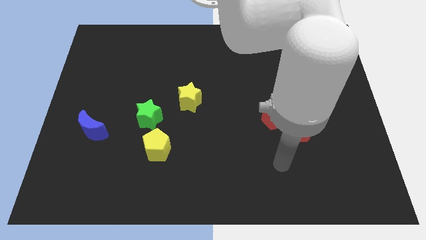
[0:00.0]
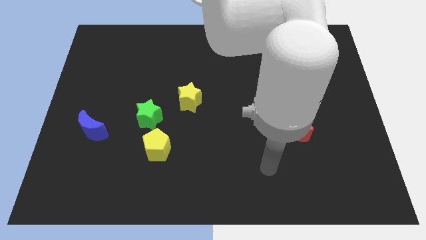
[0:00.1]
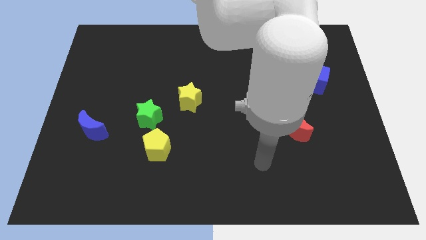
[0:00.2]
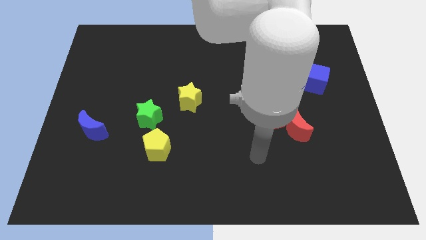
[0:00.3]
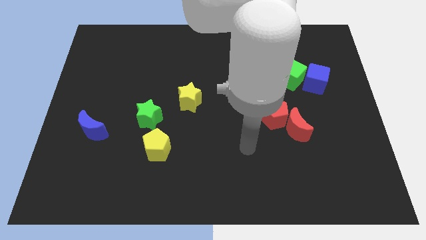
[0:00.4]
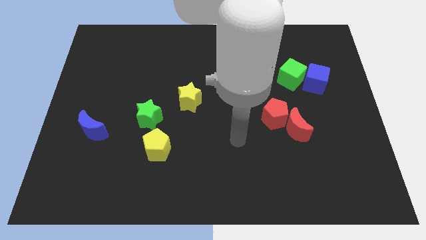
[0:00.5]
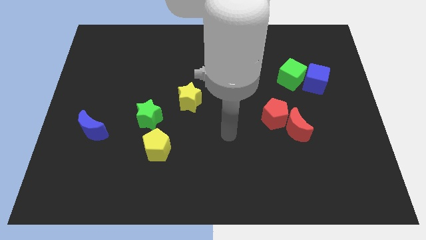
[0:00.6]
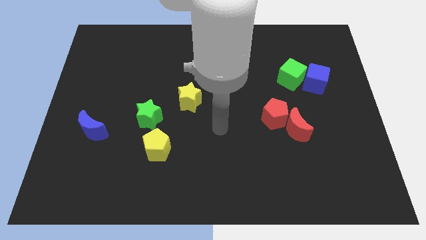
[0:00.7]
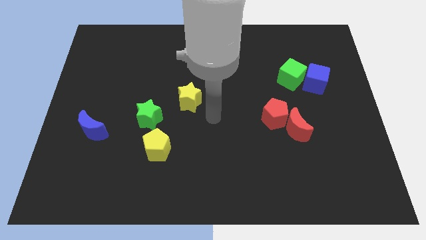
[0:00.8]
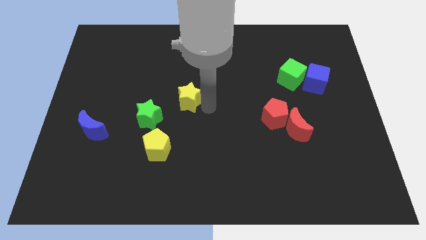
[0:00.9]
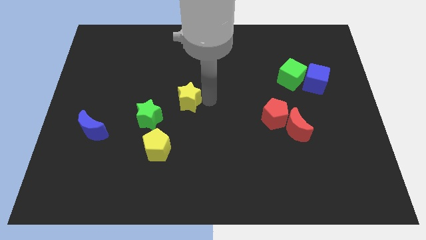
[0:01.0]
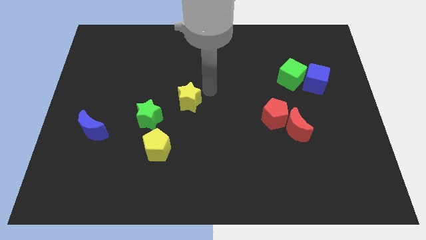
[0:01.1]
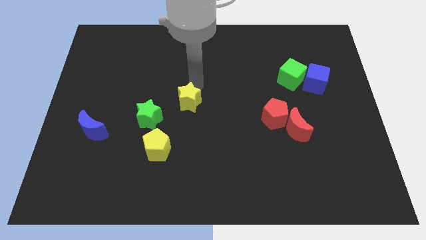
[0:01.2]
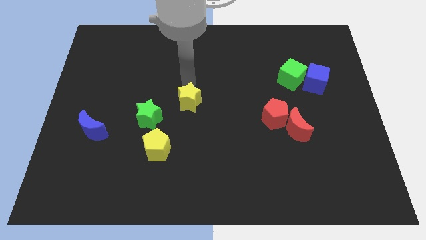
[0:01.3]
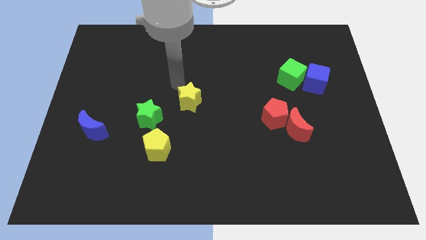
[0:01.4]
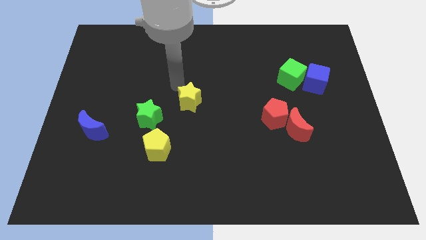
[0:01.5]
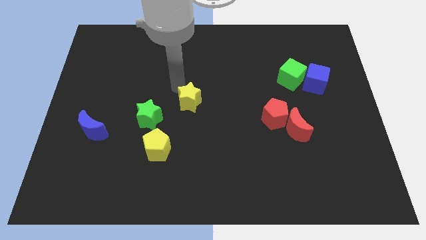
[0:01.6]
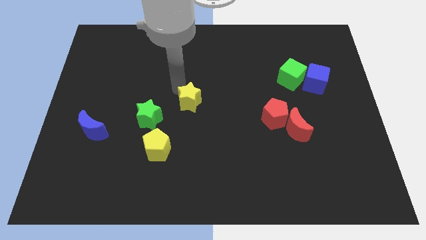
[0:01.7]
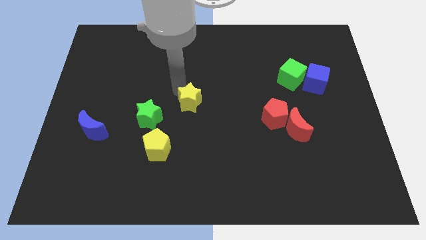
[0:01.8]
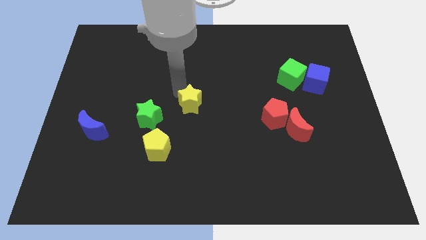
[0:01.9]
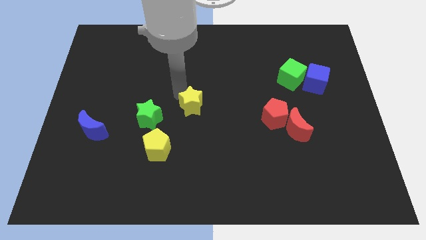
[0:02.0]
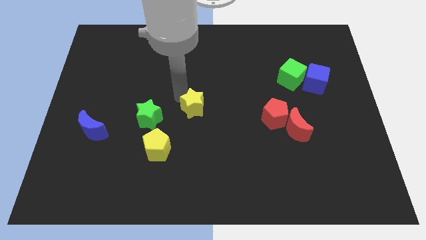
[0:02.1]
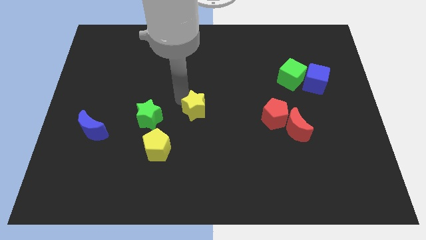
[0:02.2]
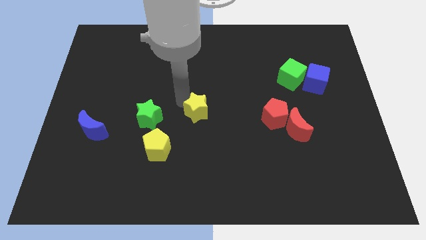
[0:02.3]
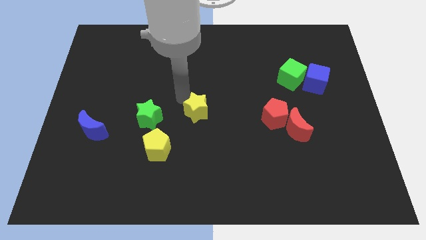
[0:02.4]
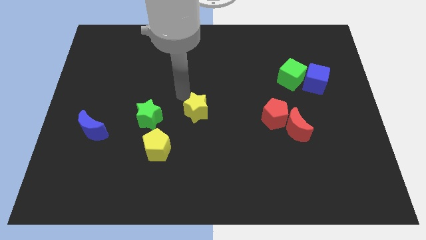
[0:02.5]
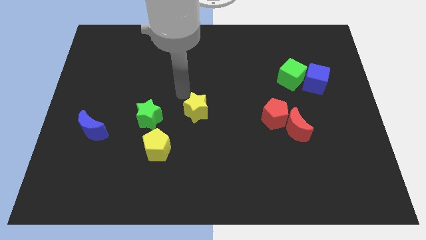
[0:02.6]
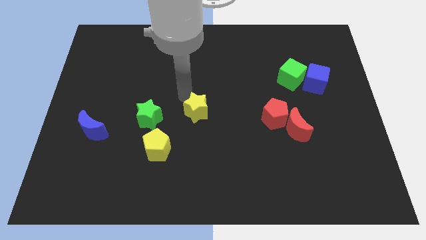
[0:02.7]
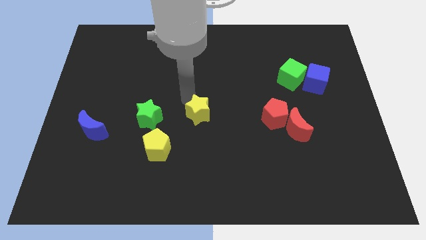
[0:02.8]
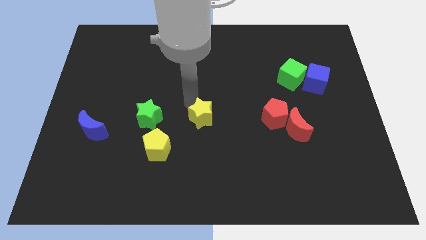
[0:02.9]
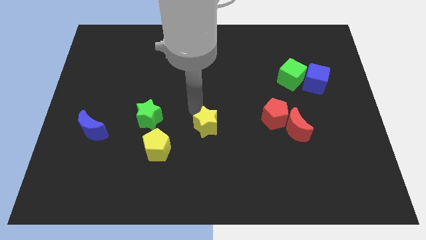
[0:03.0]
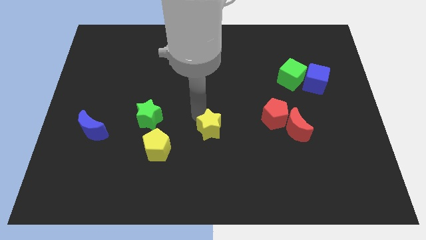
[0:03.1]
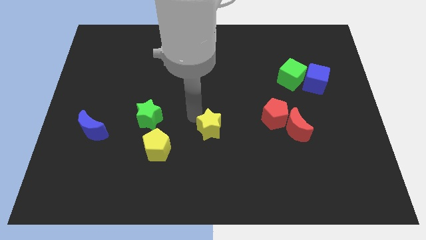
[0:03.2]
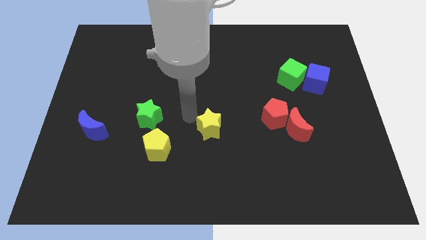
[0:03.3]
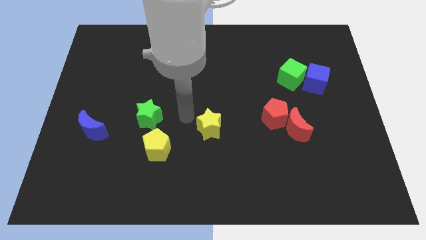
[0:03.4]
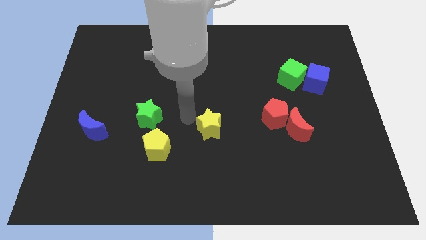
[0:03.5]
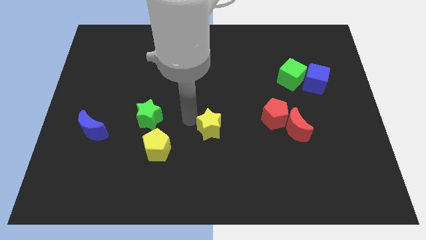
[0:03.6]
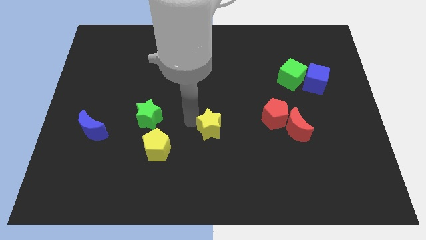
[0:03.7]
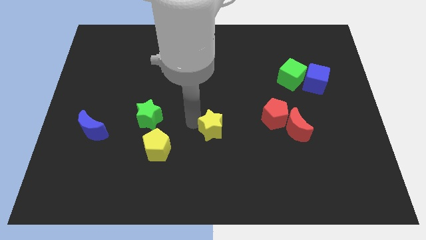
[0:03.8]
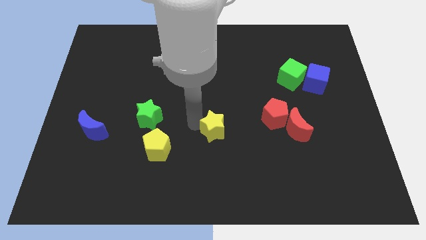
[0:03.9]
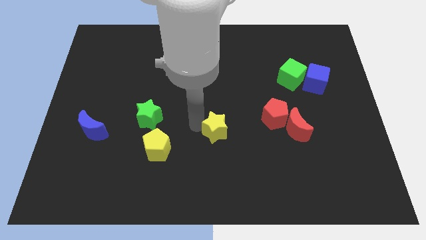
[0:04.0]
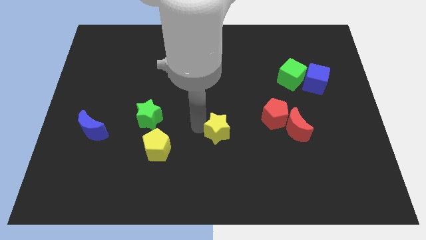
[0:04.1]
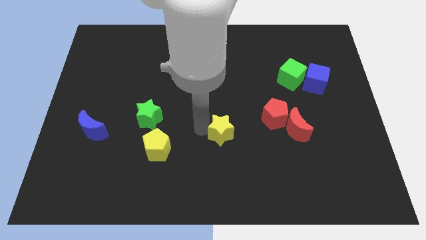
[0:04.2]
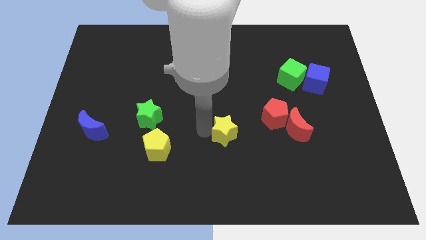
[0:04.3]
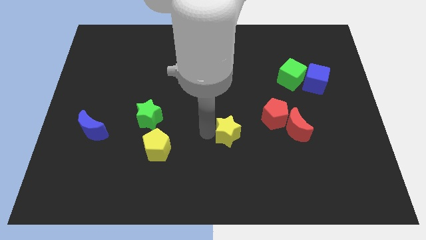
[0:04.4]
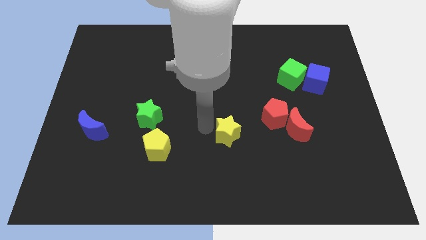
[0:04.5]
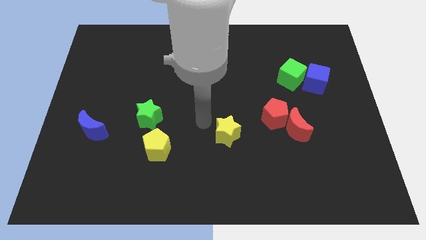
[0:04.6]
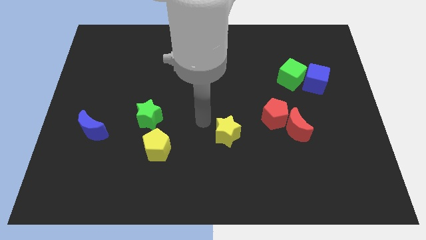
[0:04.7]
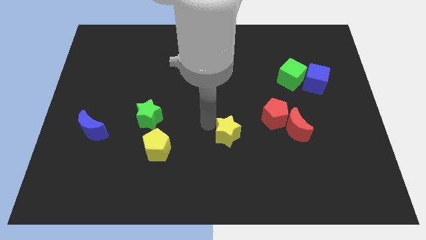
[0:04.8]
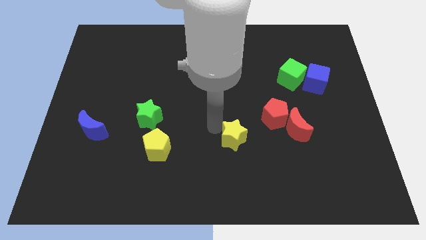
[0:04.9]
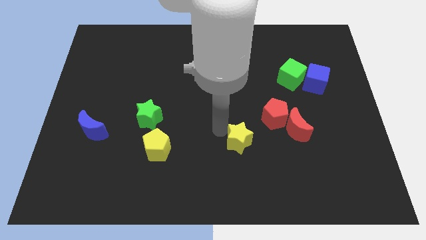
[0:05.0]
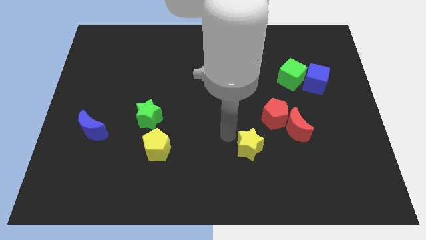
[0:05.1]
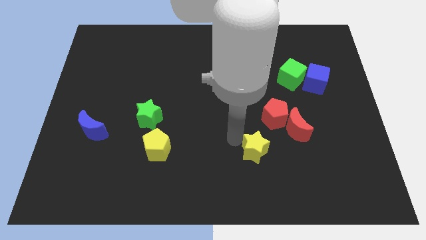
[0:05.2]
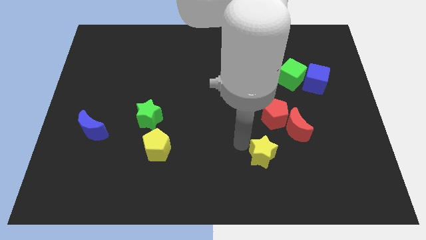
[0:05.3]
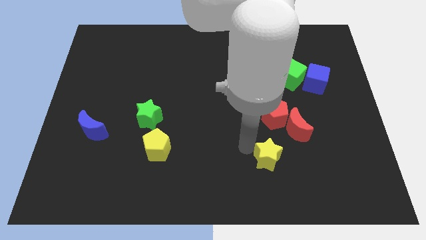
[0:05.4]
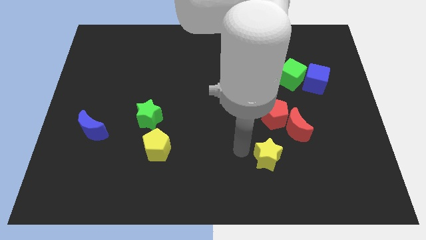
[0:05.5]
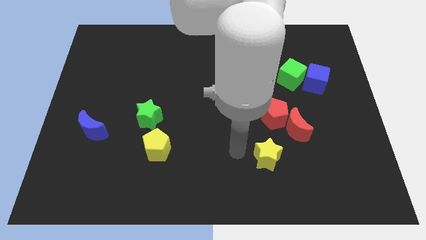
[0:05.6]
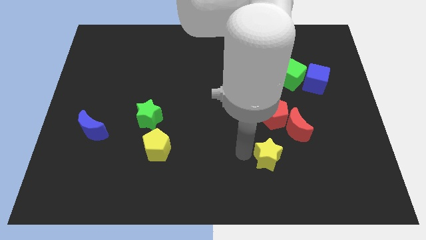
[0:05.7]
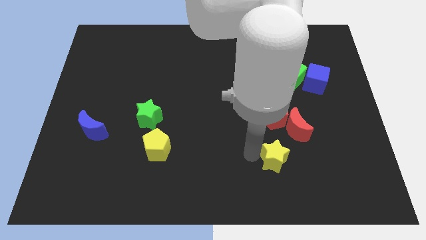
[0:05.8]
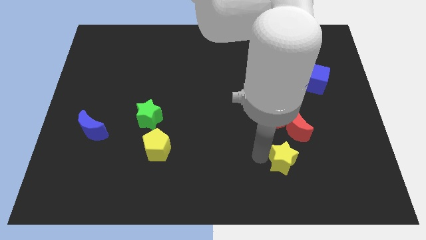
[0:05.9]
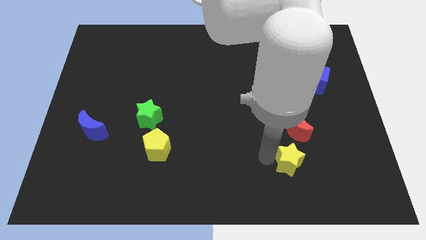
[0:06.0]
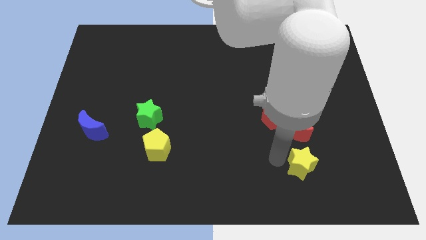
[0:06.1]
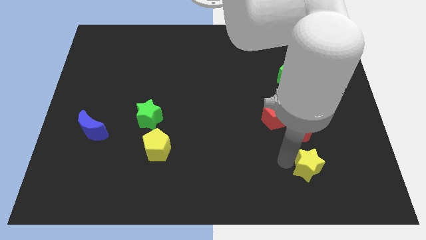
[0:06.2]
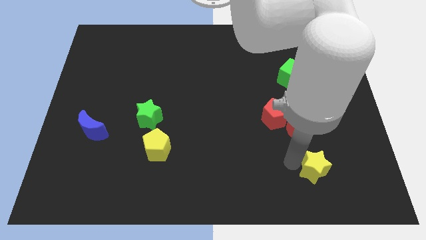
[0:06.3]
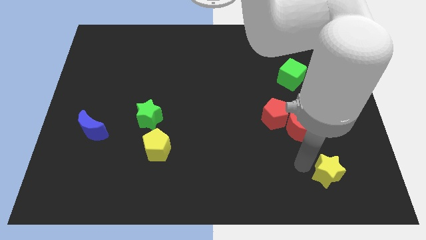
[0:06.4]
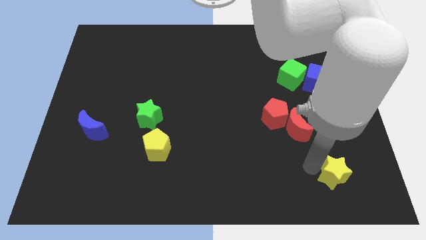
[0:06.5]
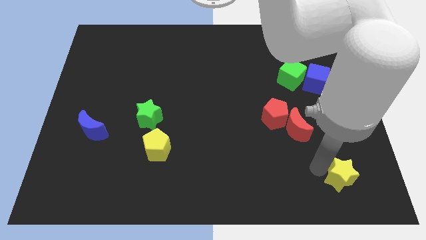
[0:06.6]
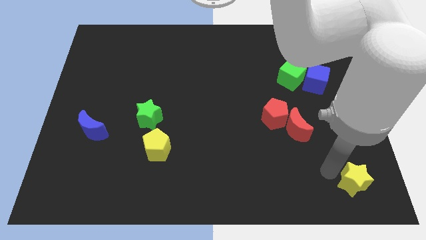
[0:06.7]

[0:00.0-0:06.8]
move the yellow star to the lower right corner
